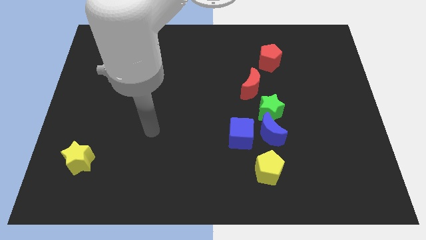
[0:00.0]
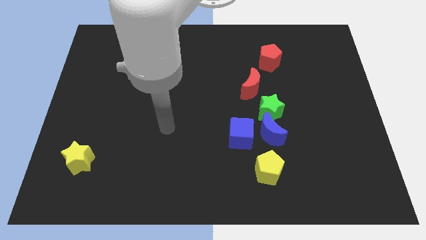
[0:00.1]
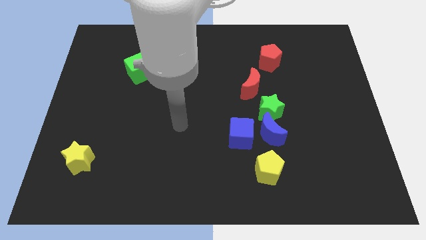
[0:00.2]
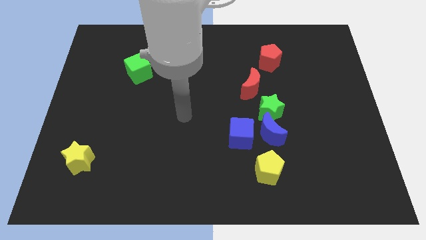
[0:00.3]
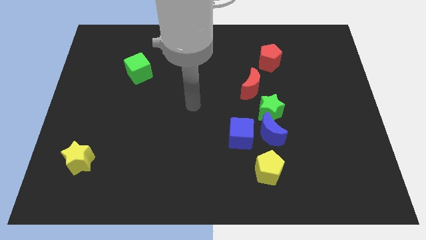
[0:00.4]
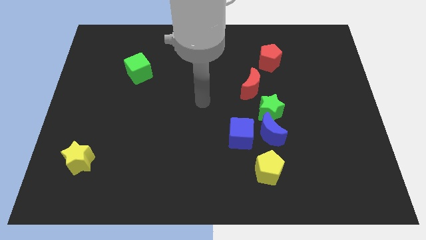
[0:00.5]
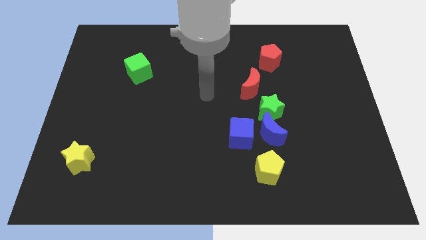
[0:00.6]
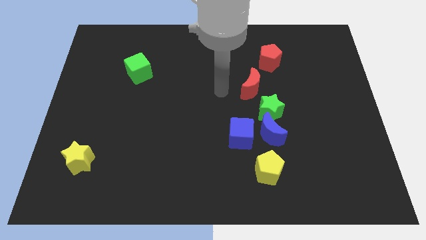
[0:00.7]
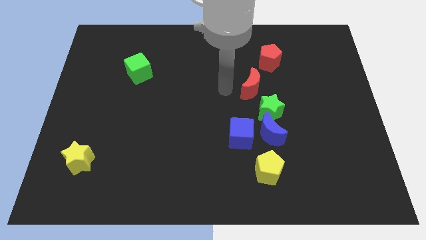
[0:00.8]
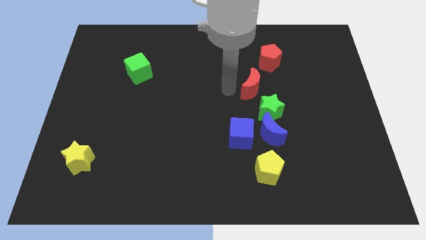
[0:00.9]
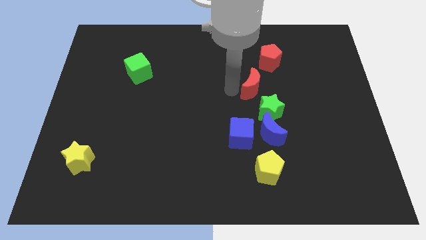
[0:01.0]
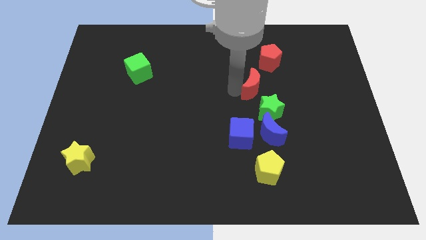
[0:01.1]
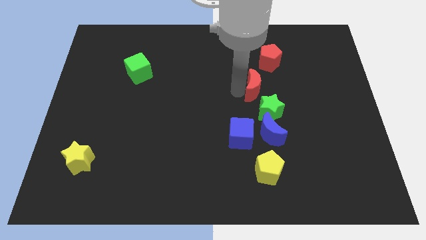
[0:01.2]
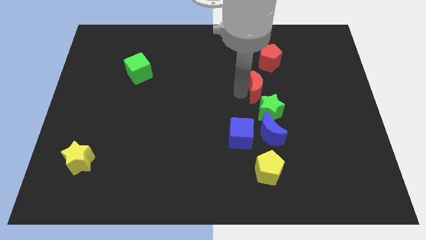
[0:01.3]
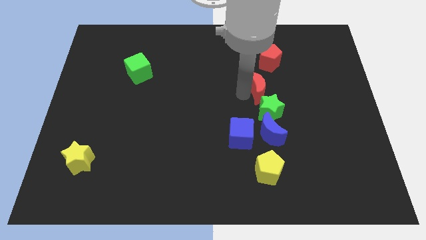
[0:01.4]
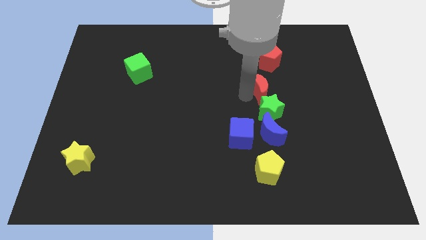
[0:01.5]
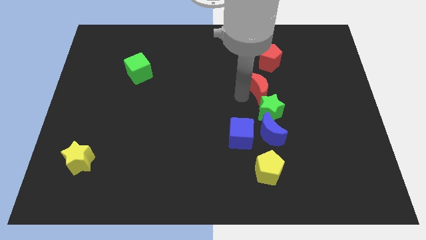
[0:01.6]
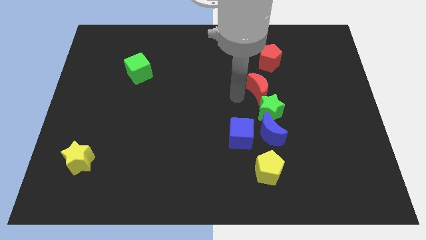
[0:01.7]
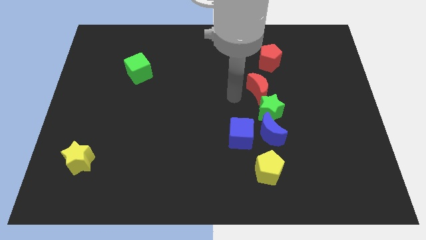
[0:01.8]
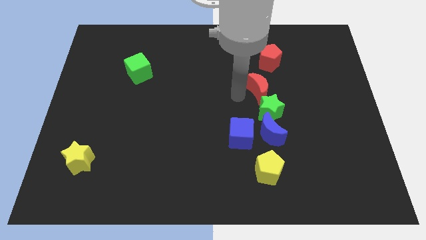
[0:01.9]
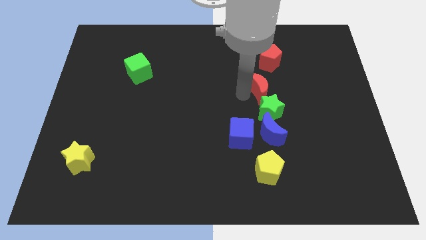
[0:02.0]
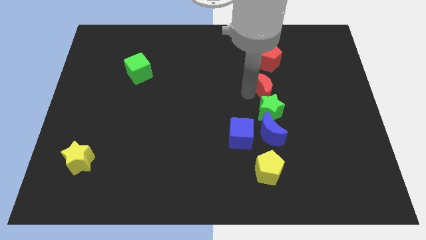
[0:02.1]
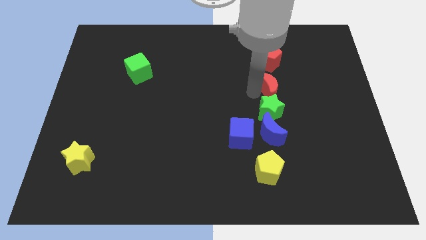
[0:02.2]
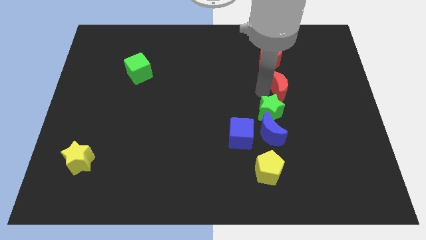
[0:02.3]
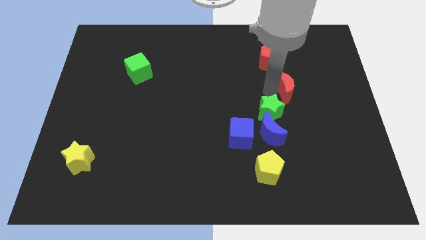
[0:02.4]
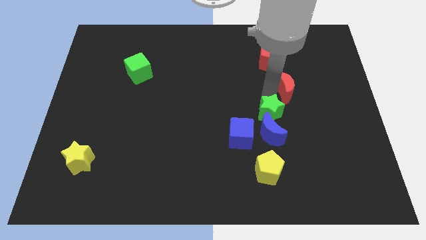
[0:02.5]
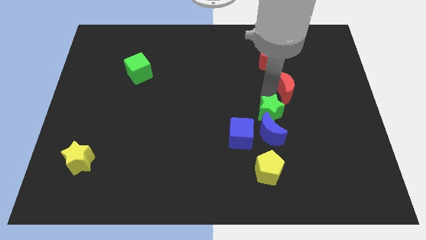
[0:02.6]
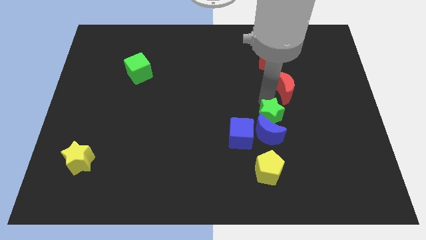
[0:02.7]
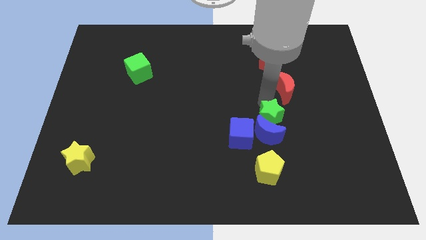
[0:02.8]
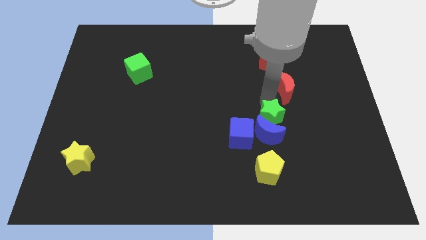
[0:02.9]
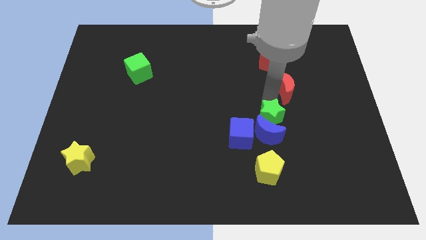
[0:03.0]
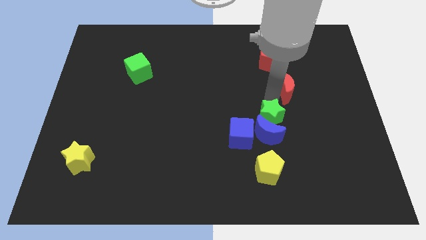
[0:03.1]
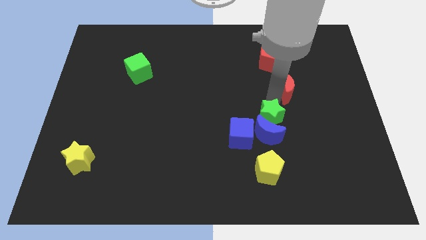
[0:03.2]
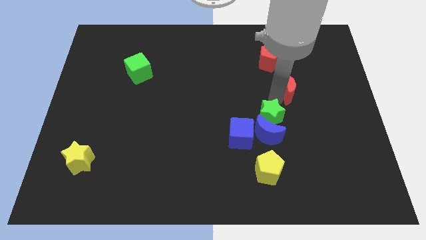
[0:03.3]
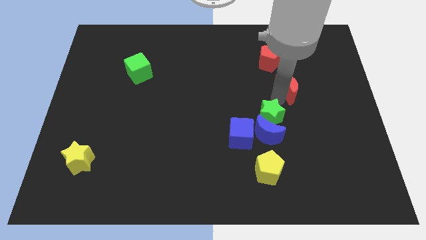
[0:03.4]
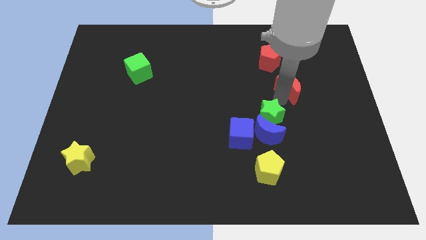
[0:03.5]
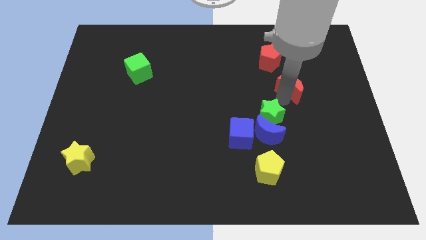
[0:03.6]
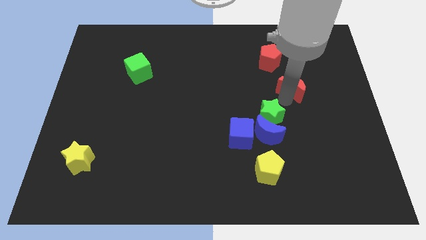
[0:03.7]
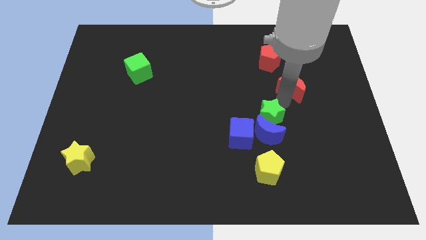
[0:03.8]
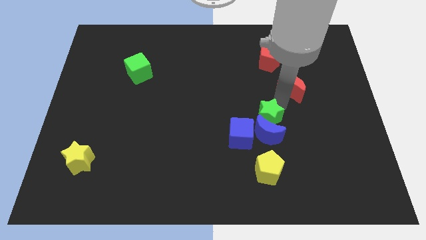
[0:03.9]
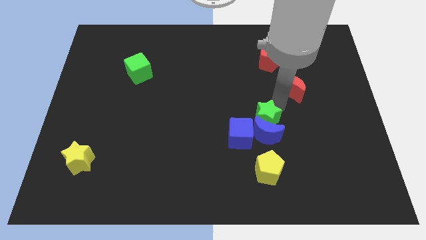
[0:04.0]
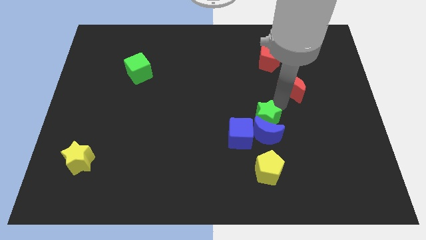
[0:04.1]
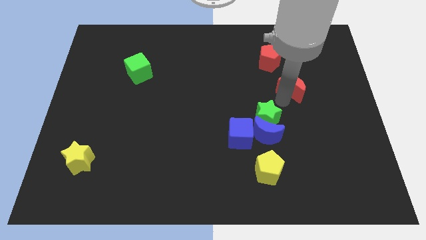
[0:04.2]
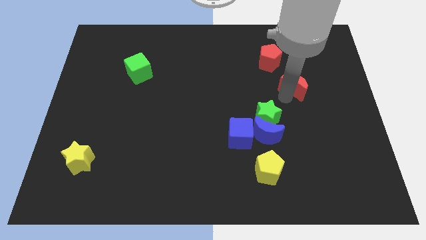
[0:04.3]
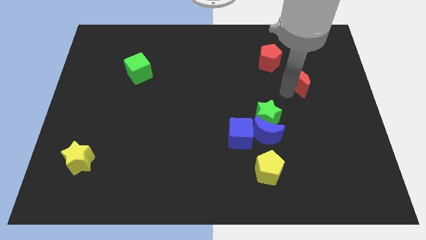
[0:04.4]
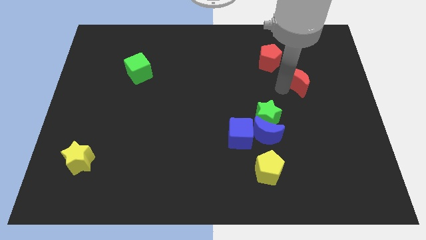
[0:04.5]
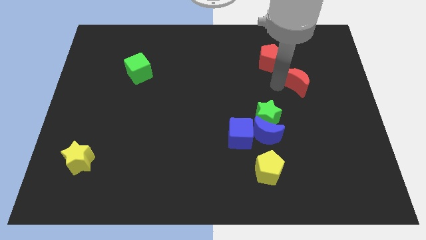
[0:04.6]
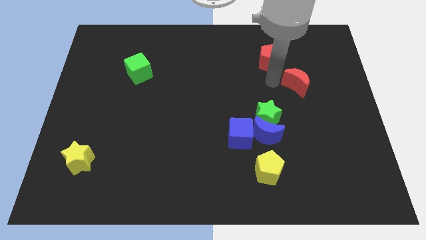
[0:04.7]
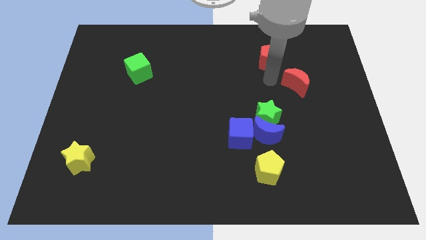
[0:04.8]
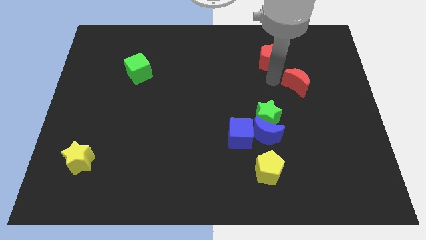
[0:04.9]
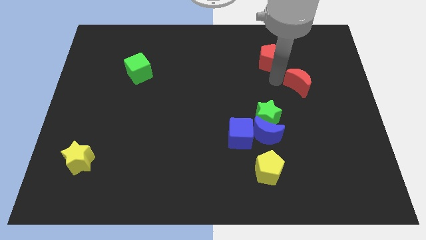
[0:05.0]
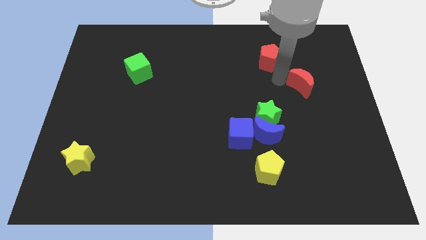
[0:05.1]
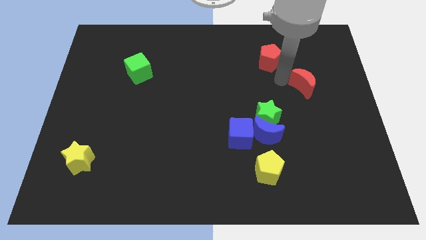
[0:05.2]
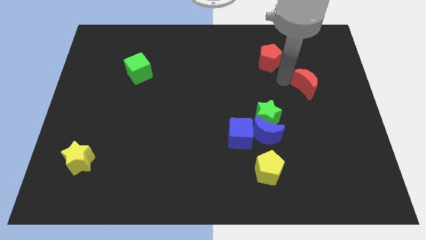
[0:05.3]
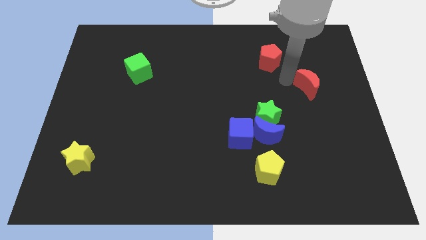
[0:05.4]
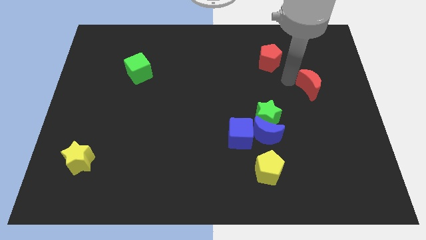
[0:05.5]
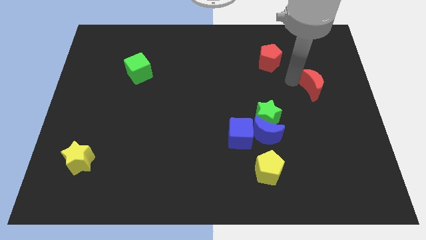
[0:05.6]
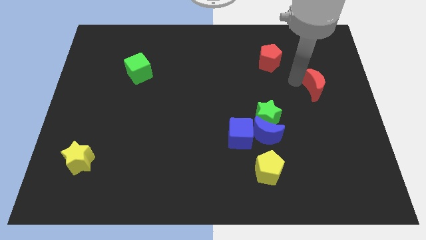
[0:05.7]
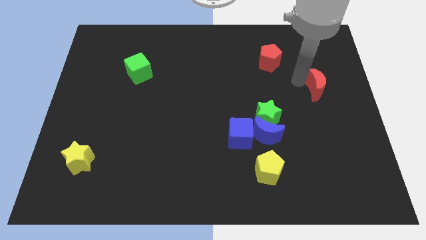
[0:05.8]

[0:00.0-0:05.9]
move the red moon to the center right
